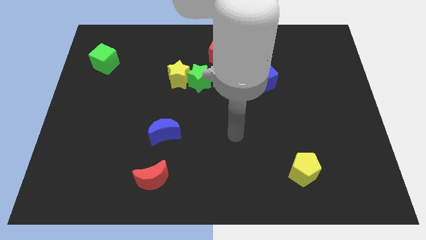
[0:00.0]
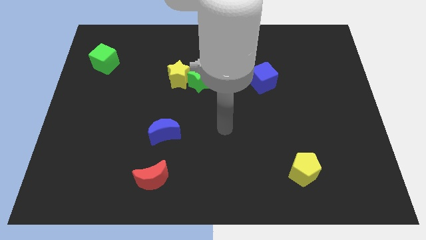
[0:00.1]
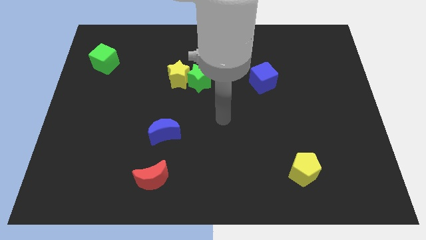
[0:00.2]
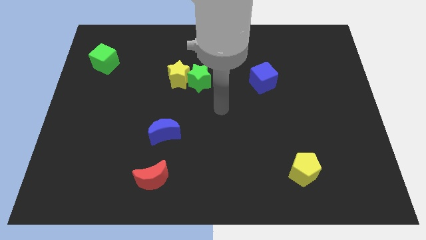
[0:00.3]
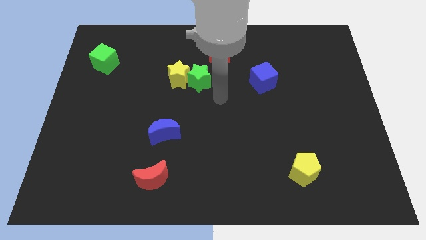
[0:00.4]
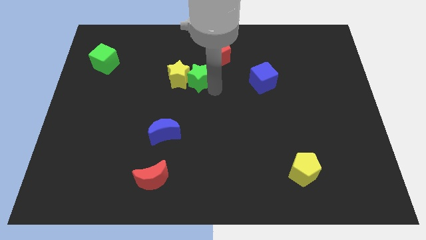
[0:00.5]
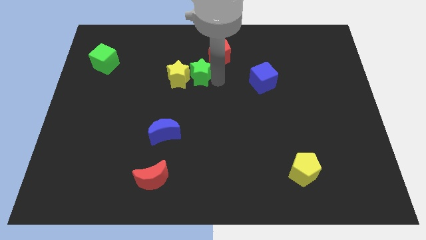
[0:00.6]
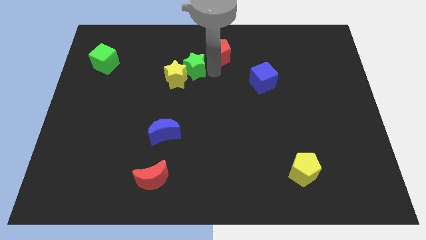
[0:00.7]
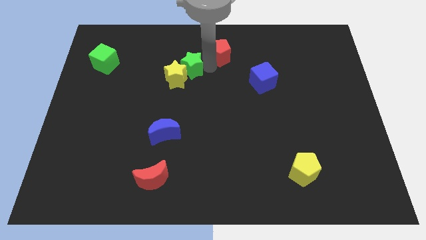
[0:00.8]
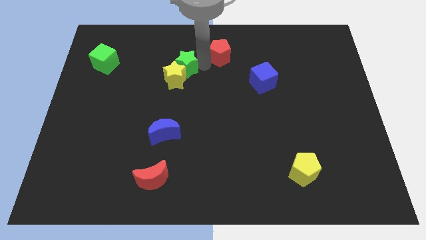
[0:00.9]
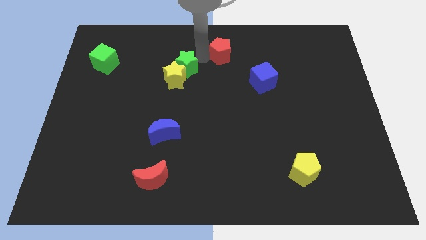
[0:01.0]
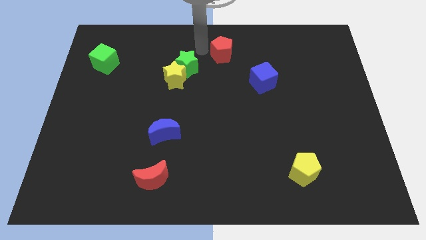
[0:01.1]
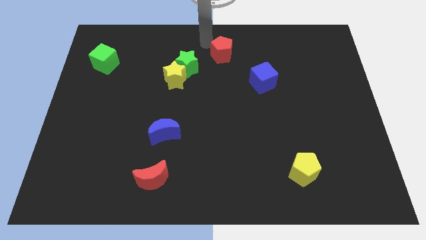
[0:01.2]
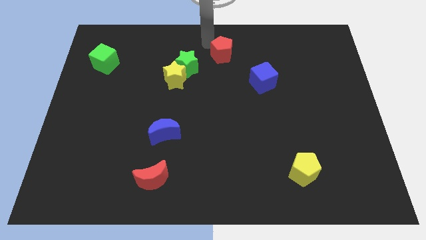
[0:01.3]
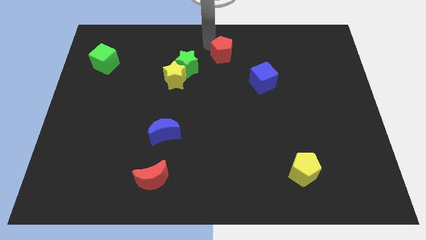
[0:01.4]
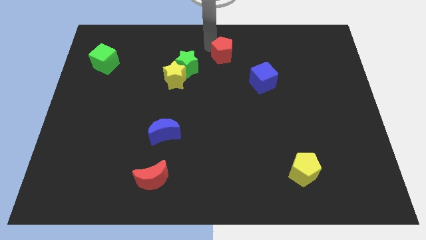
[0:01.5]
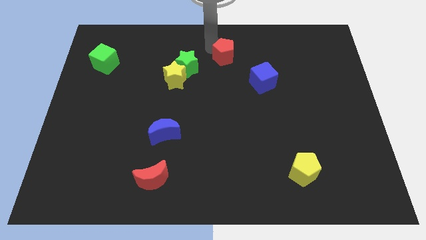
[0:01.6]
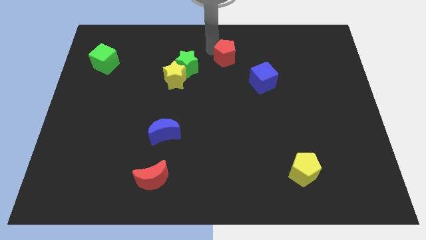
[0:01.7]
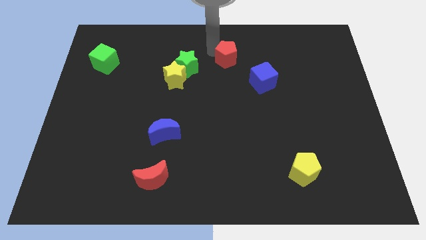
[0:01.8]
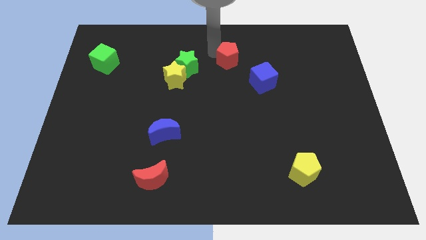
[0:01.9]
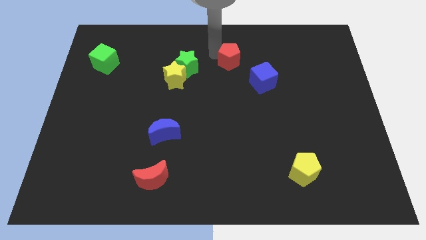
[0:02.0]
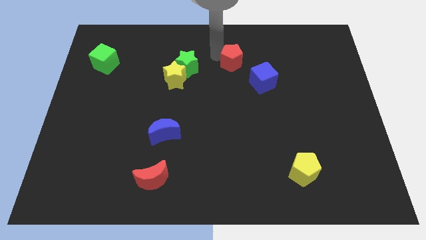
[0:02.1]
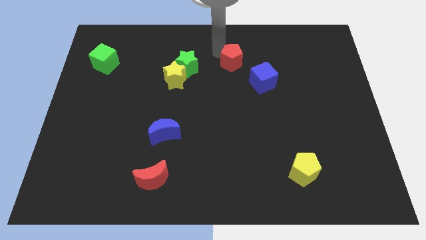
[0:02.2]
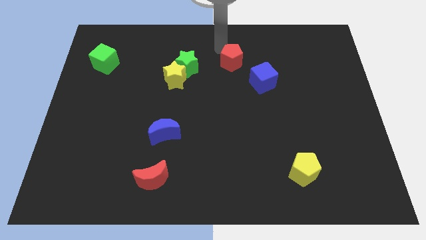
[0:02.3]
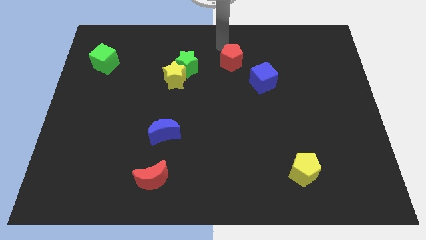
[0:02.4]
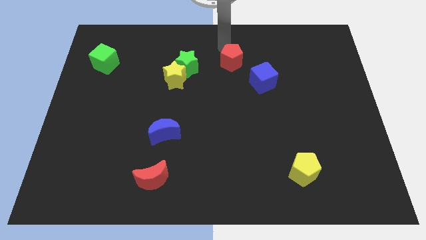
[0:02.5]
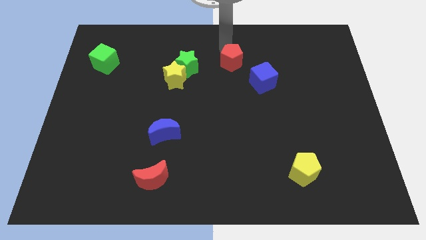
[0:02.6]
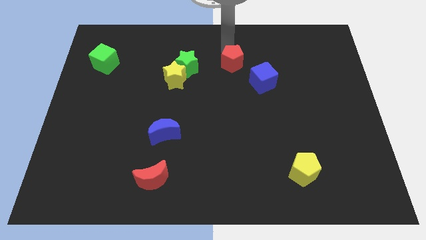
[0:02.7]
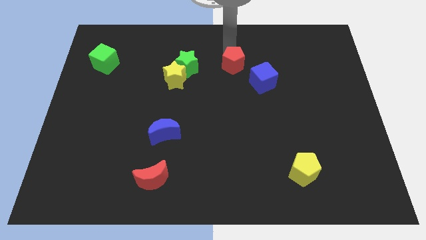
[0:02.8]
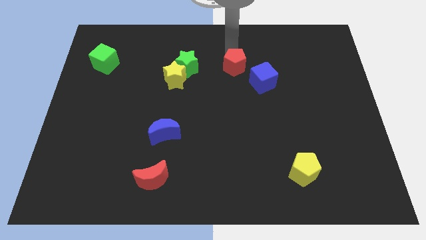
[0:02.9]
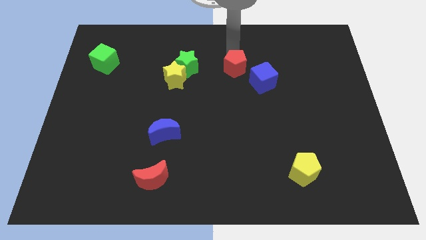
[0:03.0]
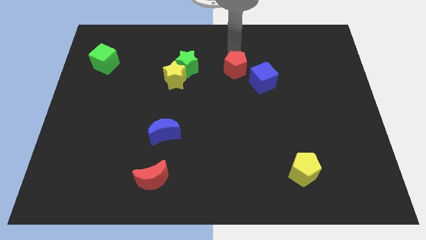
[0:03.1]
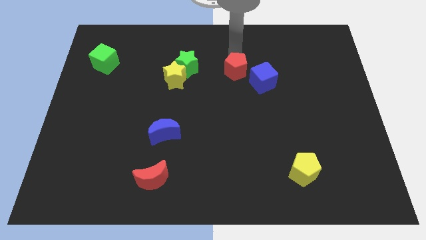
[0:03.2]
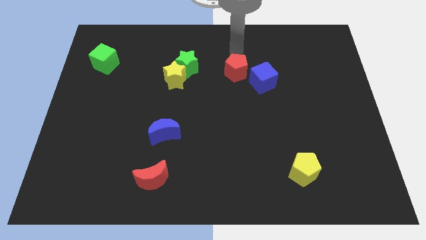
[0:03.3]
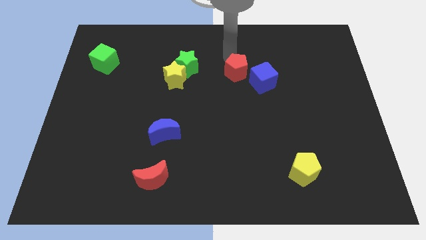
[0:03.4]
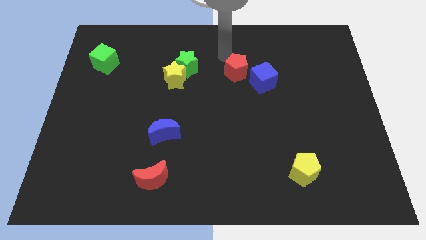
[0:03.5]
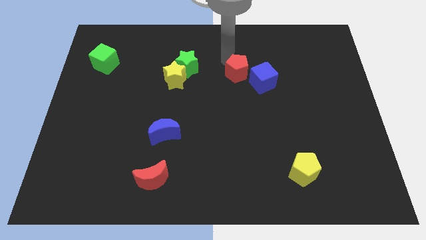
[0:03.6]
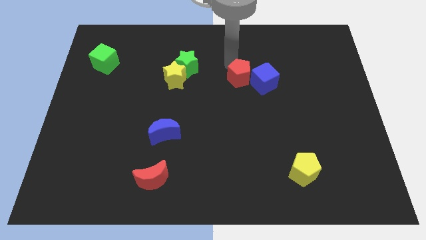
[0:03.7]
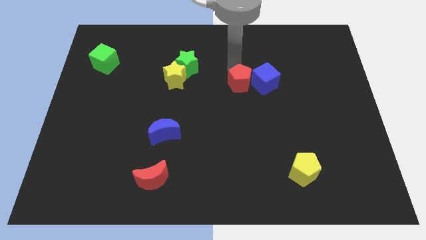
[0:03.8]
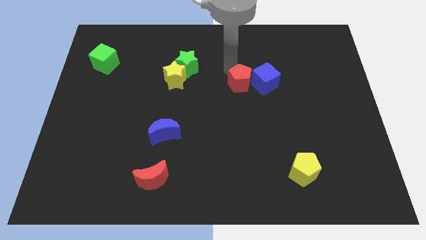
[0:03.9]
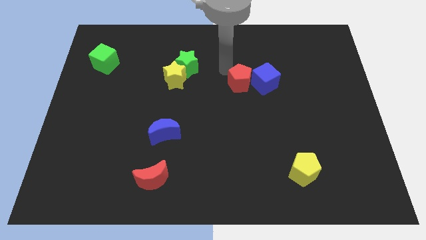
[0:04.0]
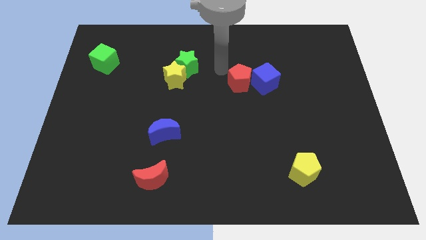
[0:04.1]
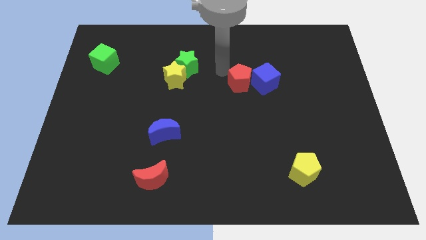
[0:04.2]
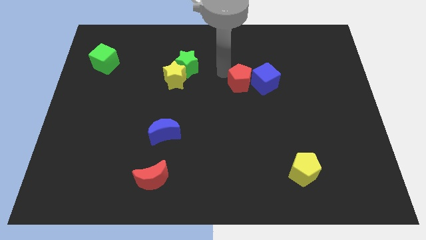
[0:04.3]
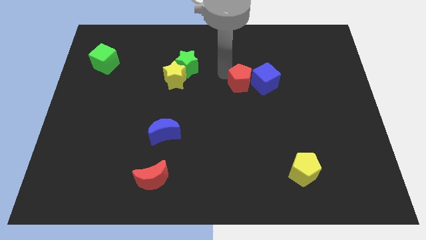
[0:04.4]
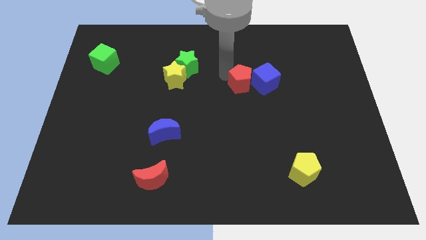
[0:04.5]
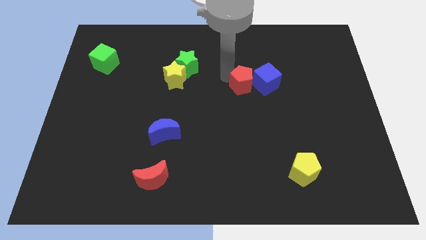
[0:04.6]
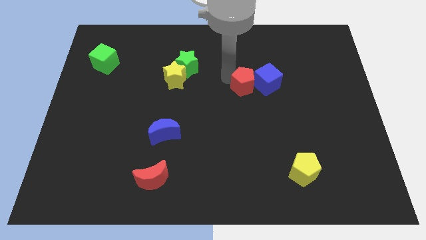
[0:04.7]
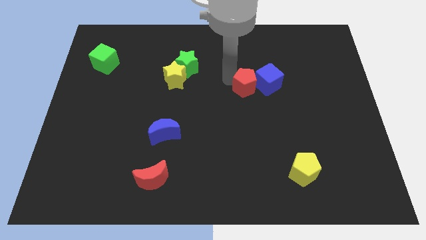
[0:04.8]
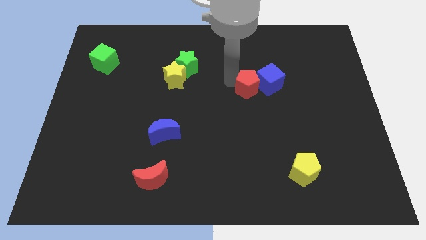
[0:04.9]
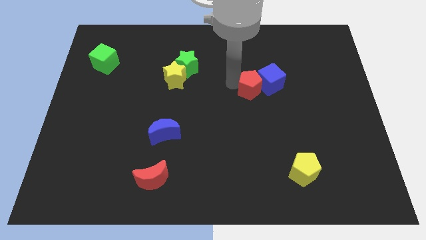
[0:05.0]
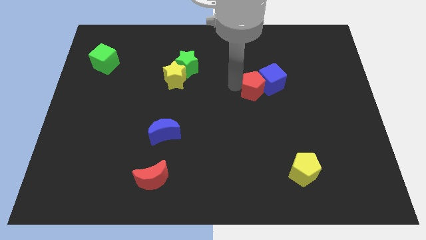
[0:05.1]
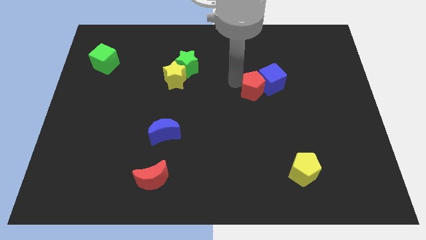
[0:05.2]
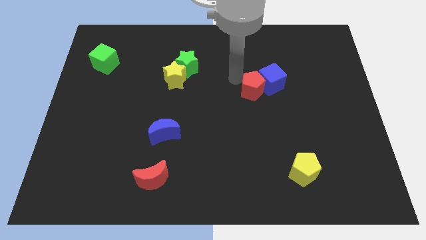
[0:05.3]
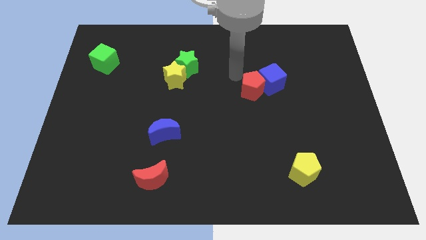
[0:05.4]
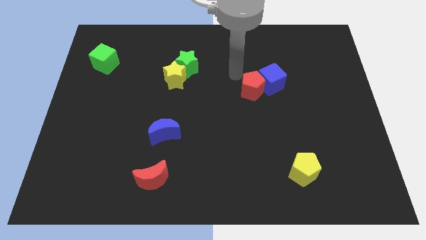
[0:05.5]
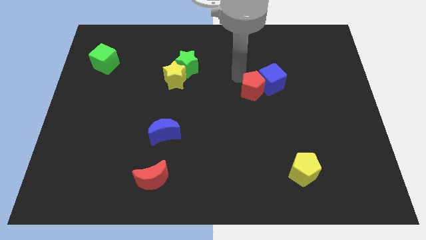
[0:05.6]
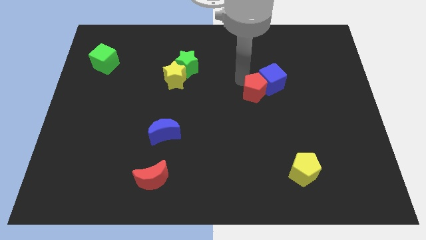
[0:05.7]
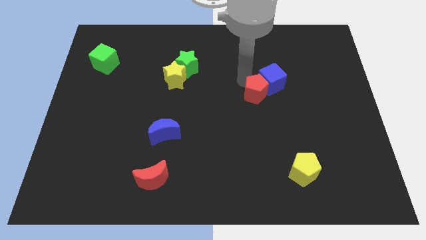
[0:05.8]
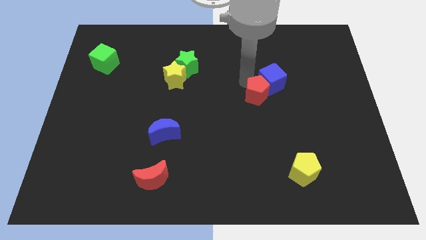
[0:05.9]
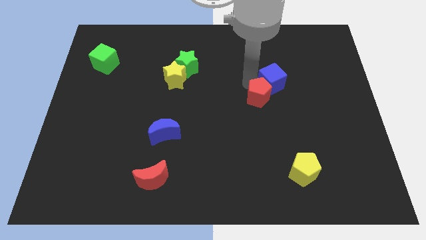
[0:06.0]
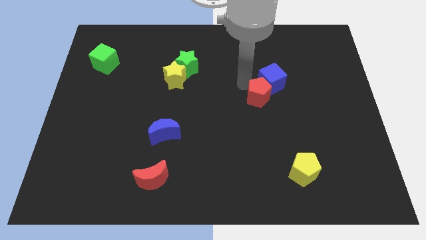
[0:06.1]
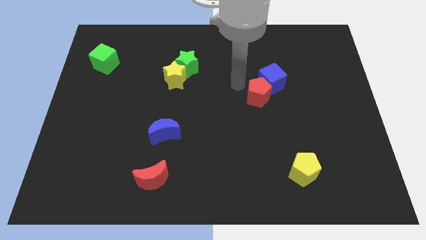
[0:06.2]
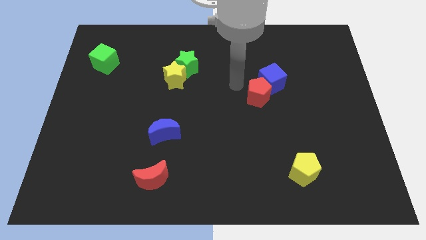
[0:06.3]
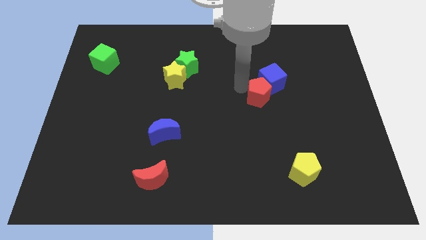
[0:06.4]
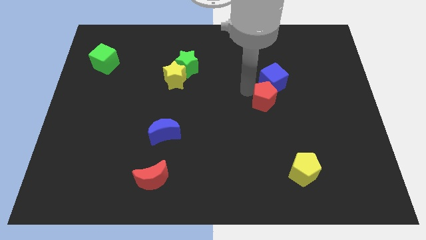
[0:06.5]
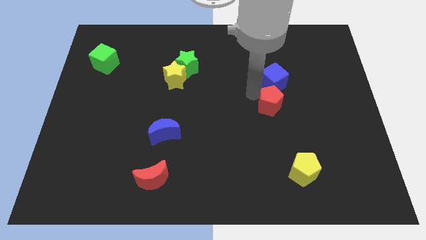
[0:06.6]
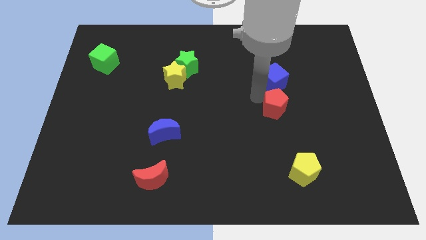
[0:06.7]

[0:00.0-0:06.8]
move the red pentagon diagonally down and to the right

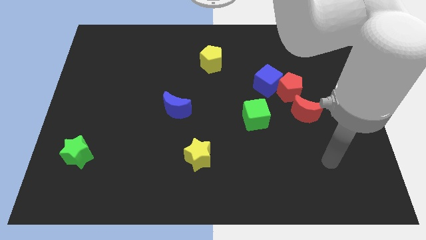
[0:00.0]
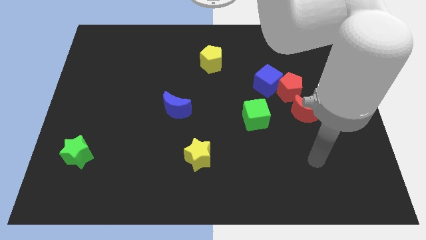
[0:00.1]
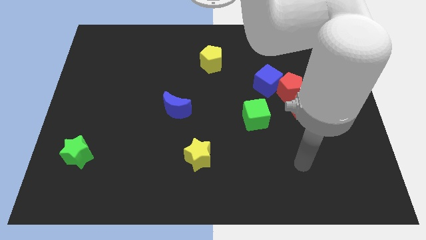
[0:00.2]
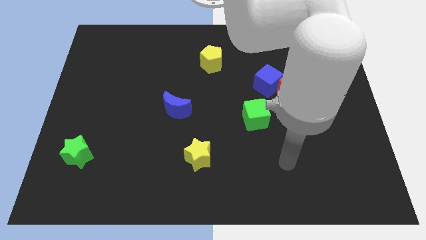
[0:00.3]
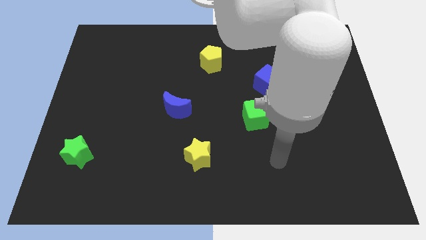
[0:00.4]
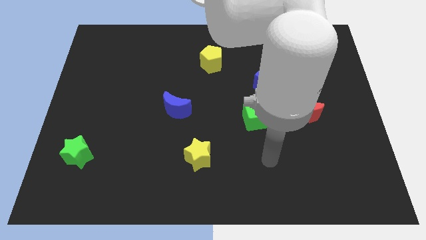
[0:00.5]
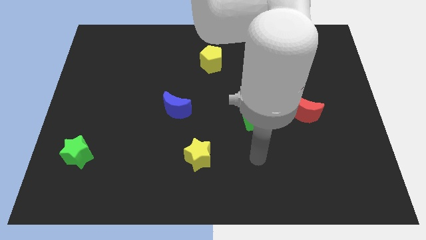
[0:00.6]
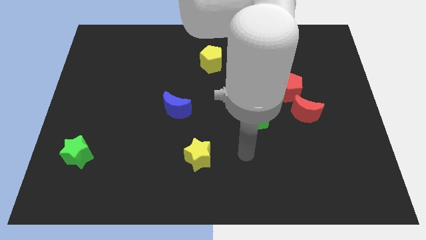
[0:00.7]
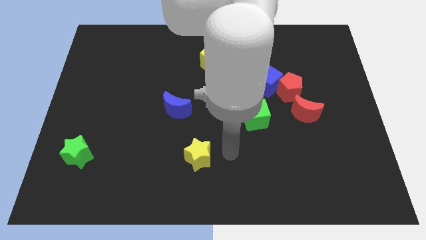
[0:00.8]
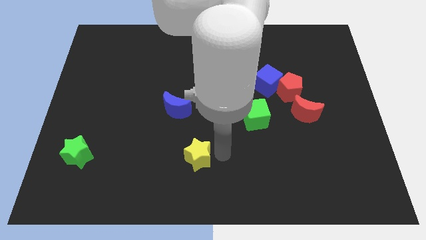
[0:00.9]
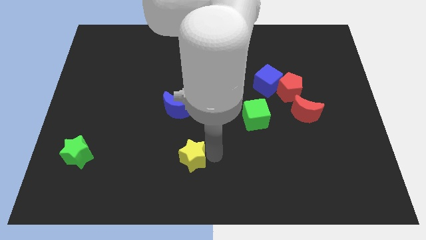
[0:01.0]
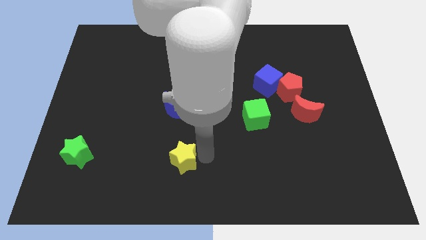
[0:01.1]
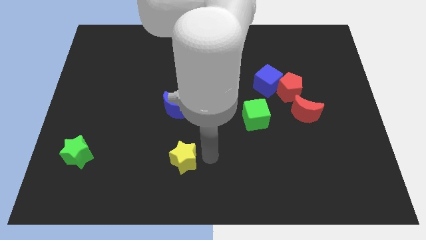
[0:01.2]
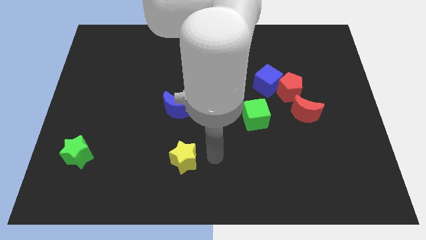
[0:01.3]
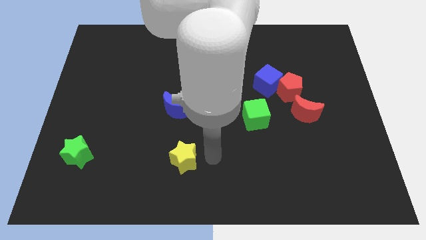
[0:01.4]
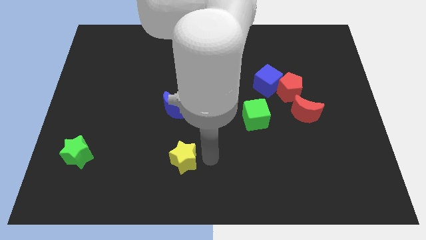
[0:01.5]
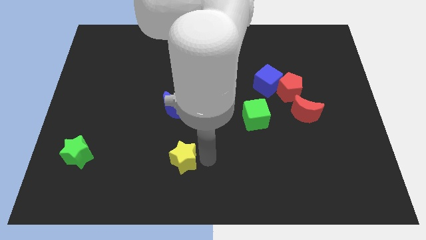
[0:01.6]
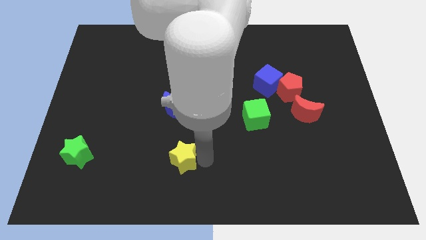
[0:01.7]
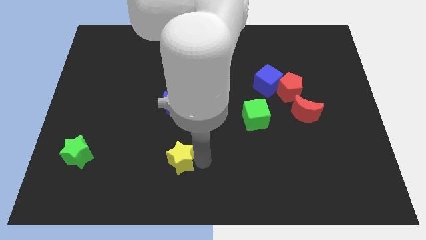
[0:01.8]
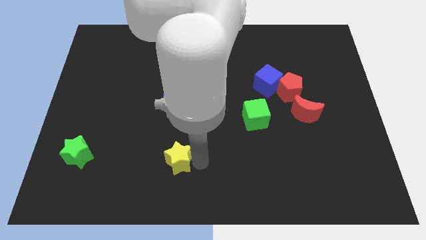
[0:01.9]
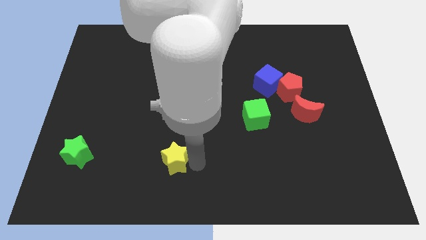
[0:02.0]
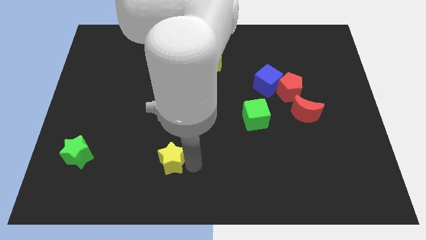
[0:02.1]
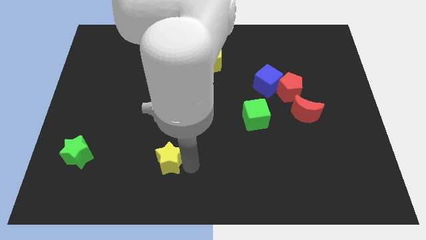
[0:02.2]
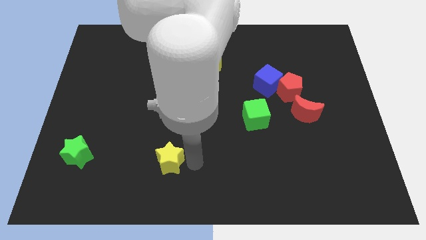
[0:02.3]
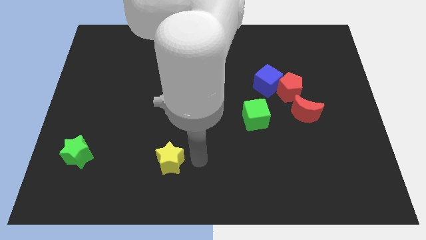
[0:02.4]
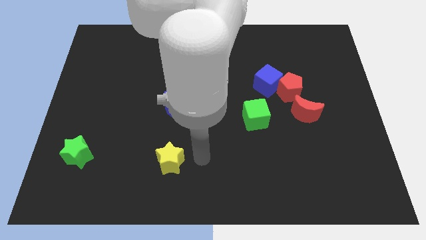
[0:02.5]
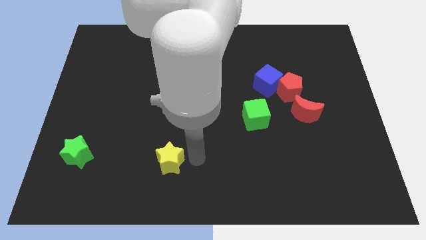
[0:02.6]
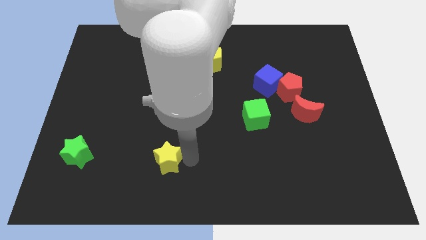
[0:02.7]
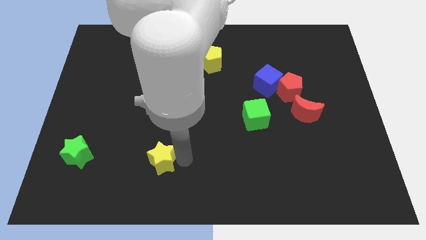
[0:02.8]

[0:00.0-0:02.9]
slightly slide the yellow star to the left
